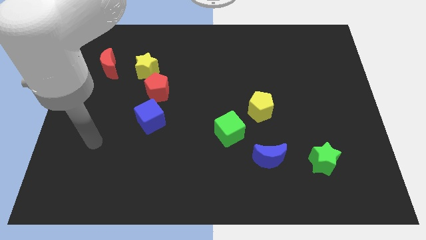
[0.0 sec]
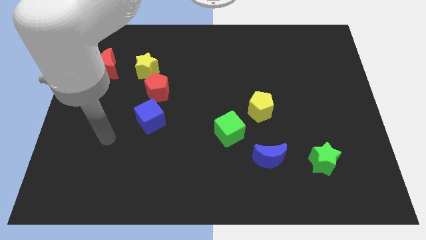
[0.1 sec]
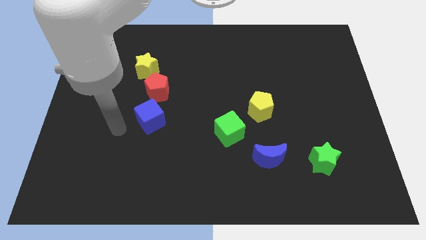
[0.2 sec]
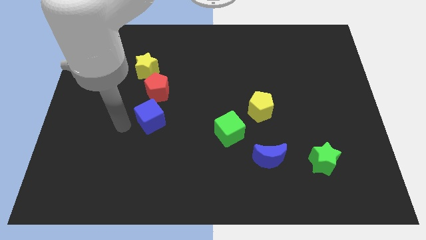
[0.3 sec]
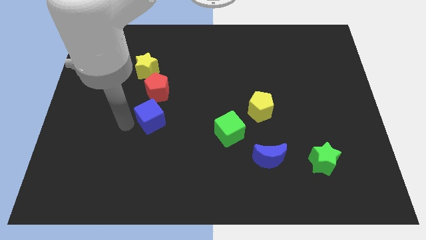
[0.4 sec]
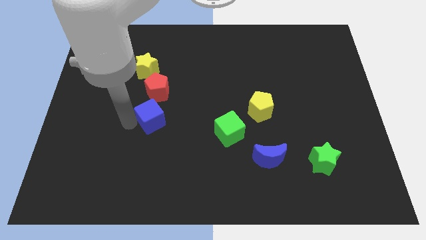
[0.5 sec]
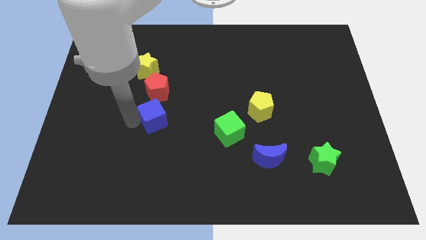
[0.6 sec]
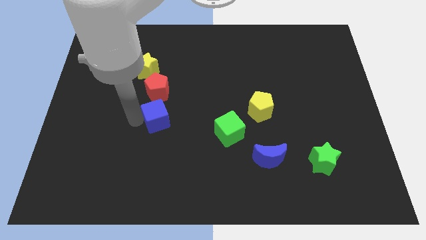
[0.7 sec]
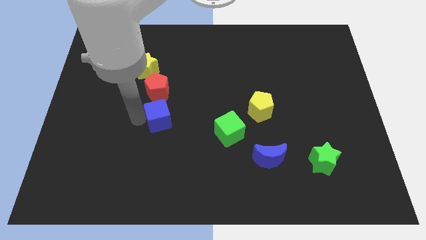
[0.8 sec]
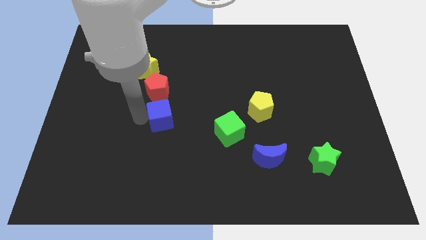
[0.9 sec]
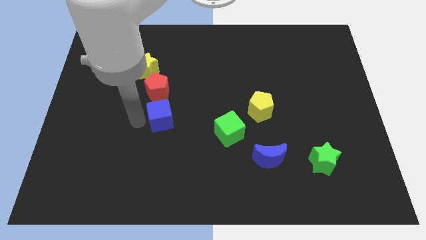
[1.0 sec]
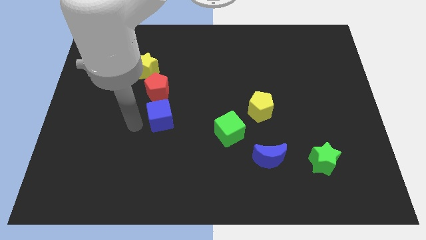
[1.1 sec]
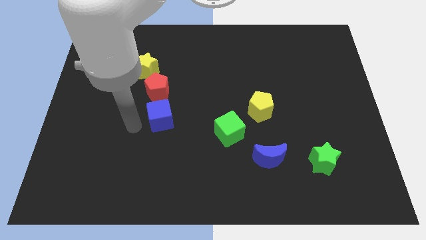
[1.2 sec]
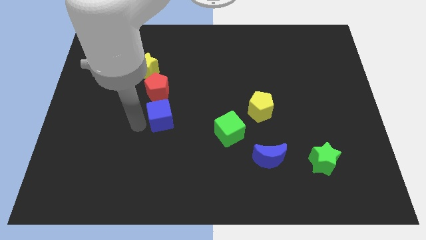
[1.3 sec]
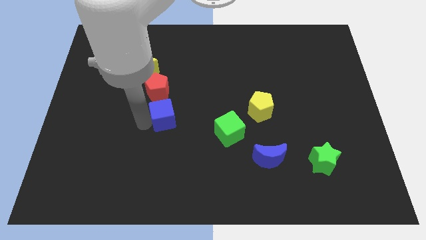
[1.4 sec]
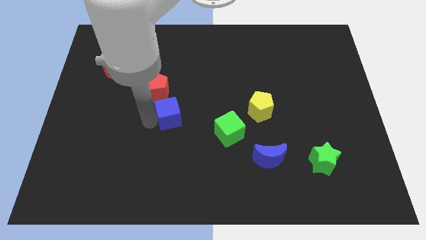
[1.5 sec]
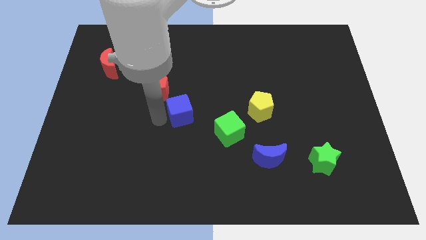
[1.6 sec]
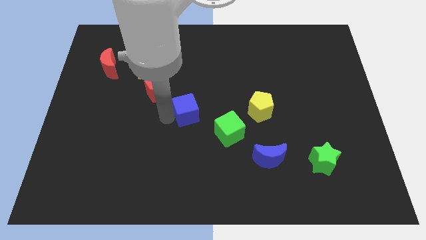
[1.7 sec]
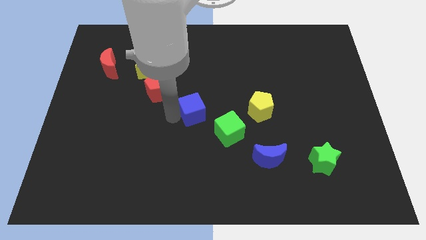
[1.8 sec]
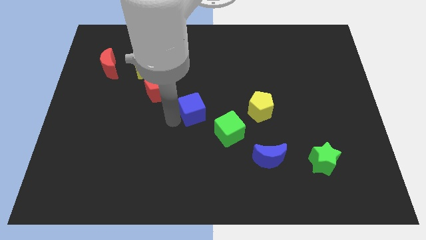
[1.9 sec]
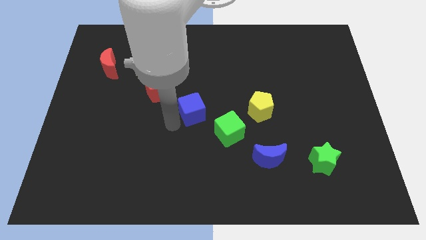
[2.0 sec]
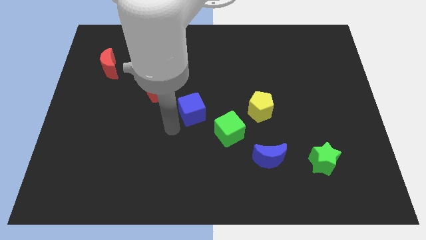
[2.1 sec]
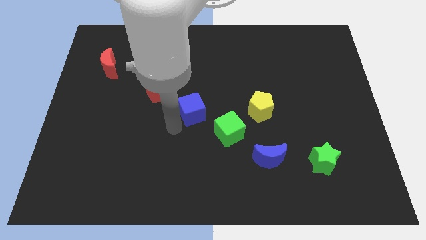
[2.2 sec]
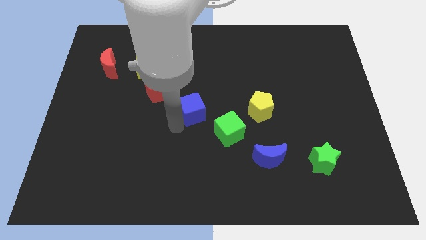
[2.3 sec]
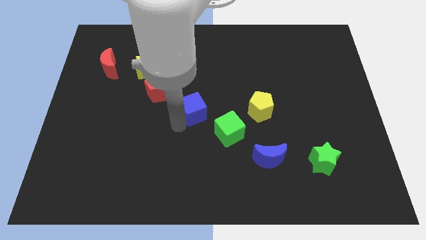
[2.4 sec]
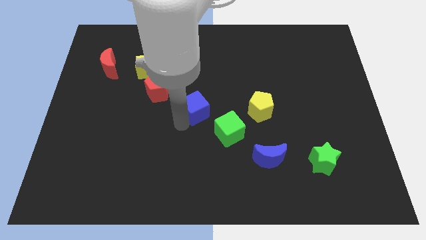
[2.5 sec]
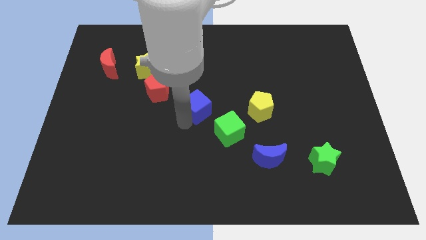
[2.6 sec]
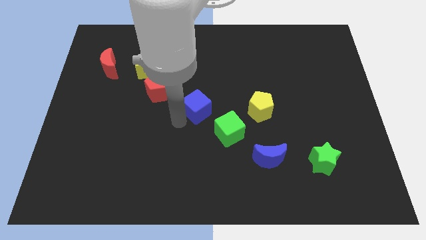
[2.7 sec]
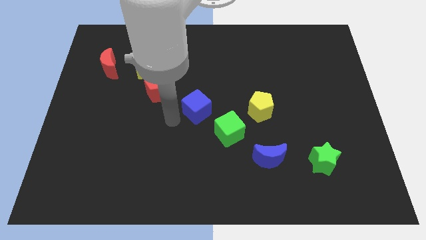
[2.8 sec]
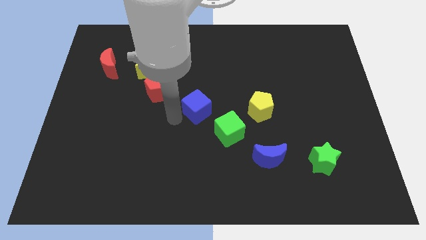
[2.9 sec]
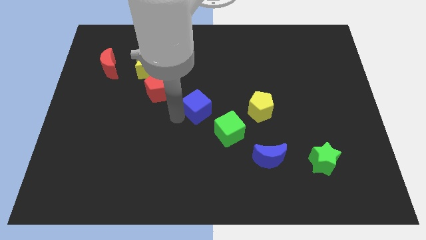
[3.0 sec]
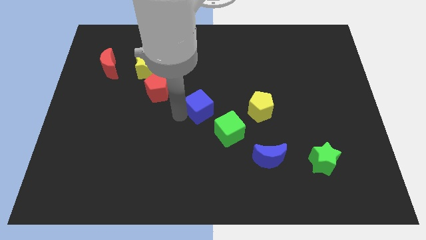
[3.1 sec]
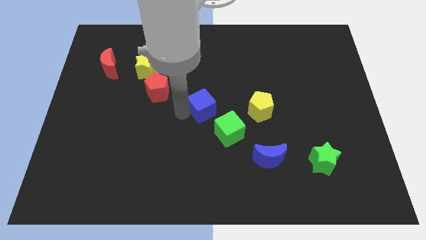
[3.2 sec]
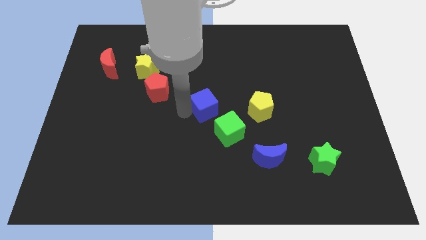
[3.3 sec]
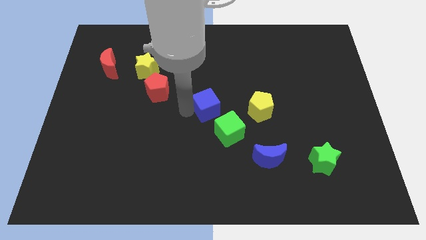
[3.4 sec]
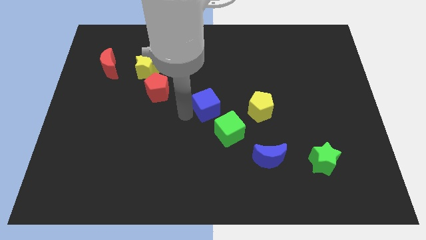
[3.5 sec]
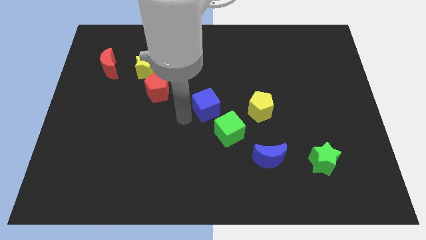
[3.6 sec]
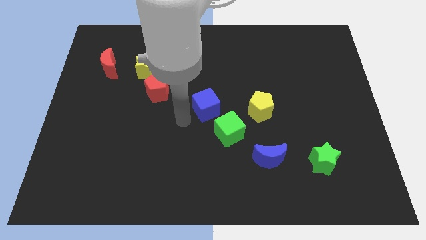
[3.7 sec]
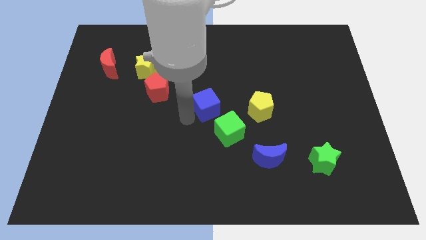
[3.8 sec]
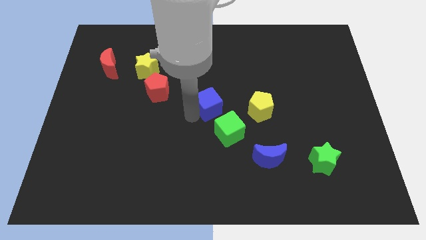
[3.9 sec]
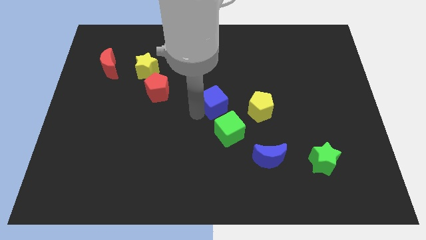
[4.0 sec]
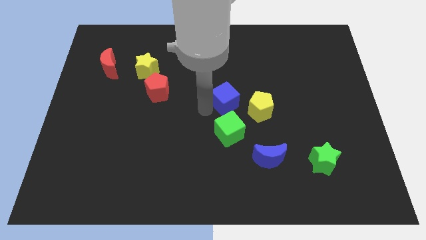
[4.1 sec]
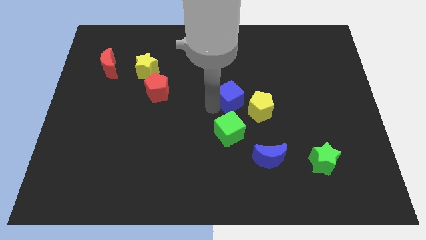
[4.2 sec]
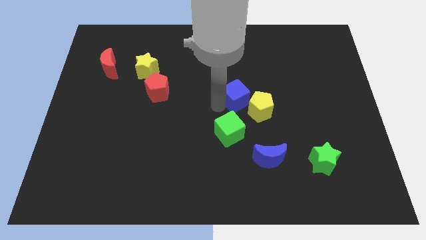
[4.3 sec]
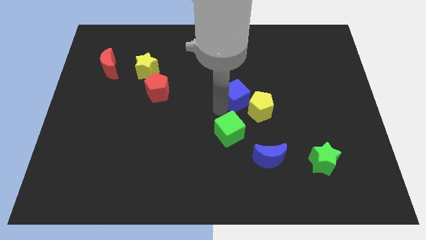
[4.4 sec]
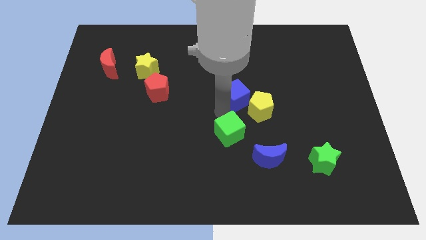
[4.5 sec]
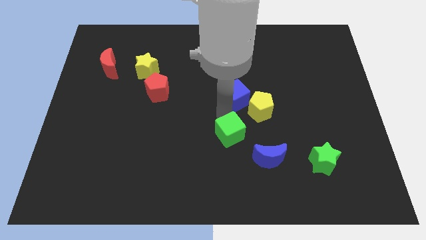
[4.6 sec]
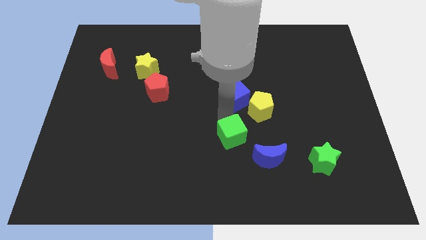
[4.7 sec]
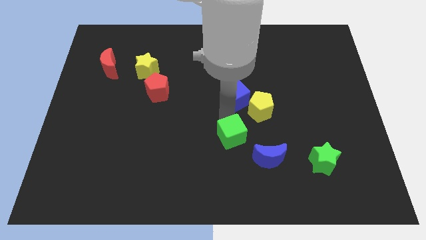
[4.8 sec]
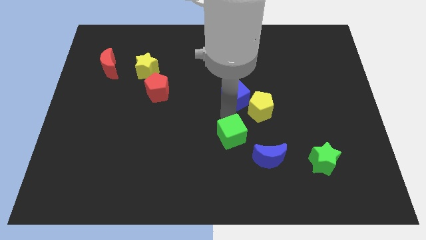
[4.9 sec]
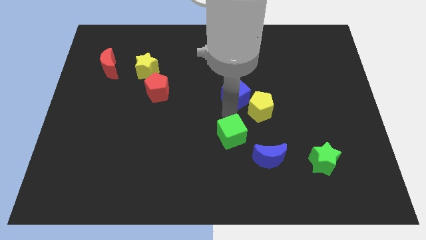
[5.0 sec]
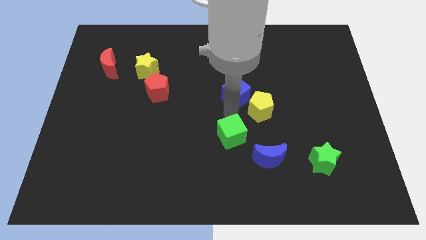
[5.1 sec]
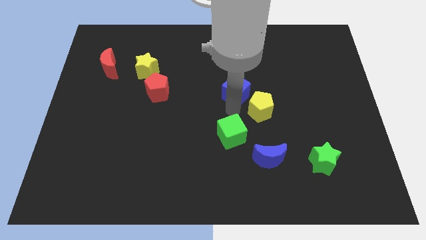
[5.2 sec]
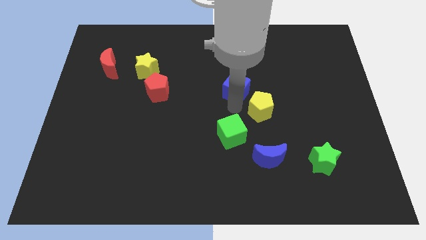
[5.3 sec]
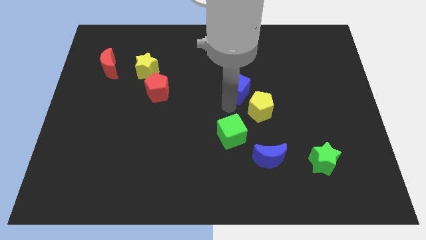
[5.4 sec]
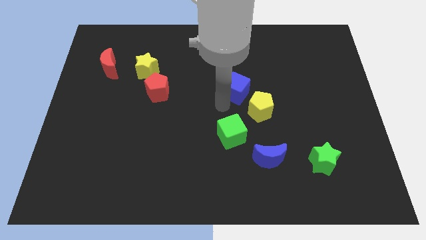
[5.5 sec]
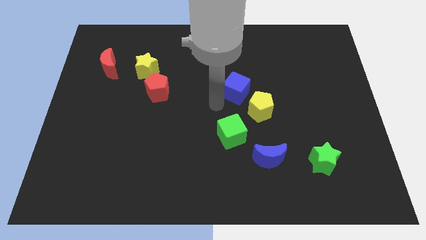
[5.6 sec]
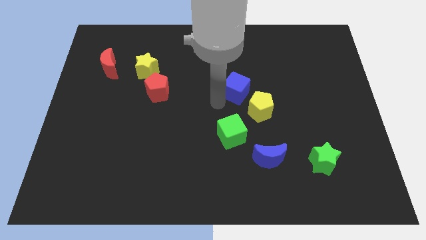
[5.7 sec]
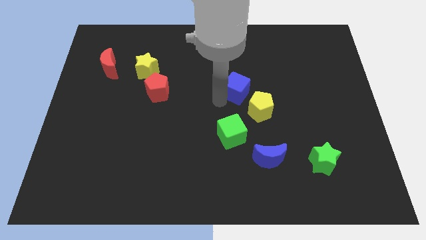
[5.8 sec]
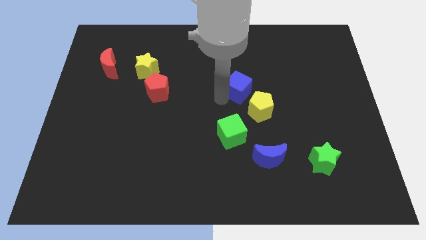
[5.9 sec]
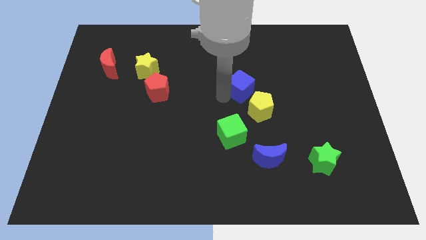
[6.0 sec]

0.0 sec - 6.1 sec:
slide the blue cube to the top side of the yellow pentagon

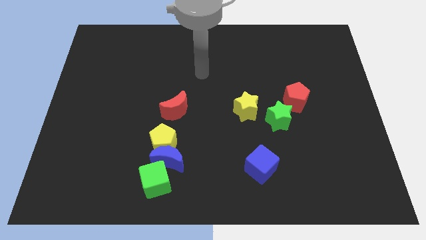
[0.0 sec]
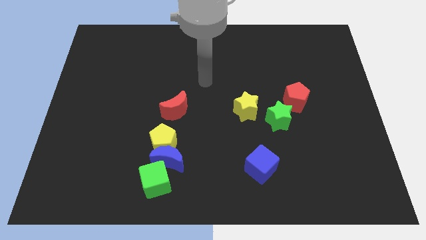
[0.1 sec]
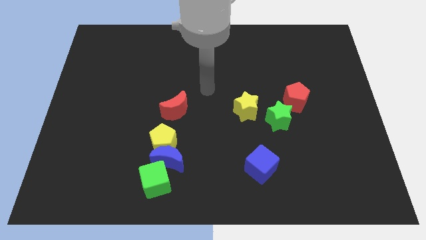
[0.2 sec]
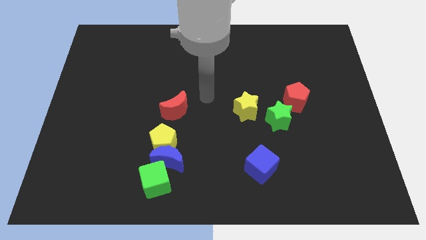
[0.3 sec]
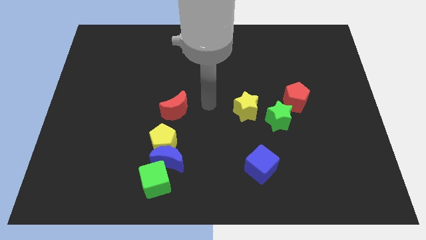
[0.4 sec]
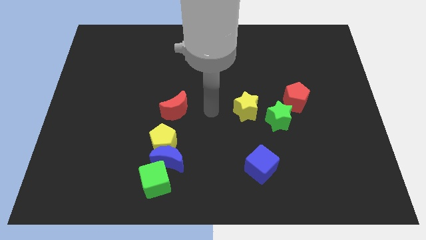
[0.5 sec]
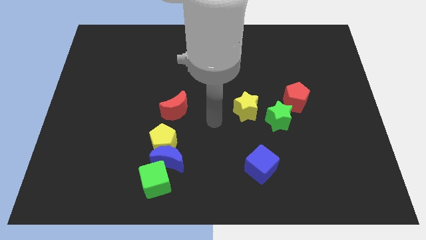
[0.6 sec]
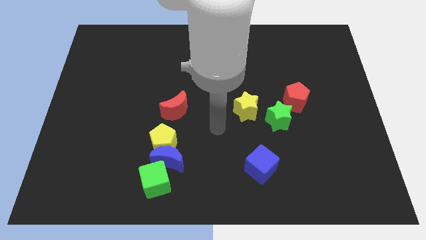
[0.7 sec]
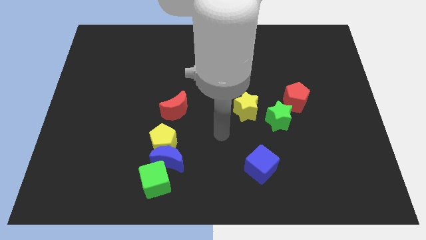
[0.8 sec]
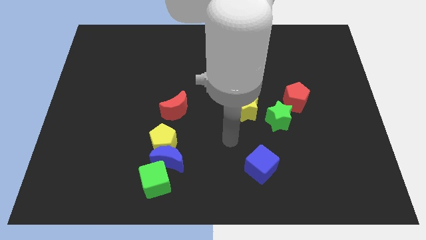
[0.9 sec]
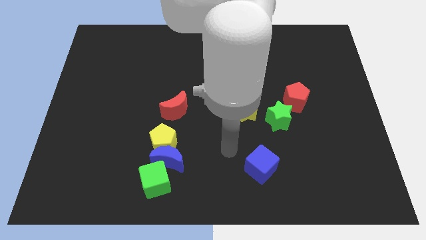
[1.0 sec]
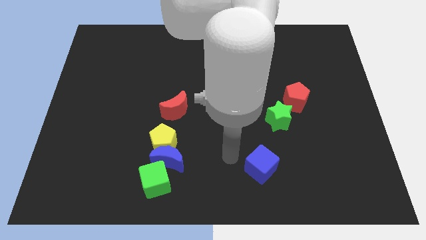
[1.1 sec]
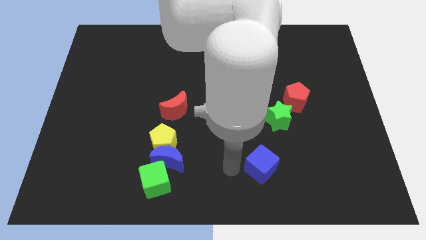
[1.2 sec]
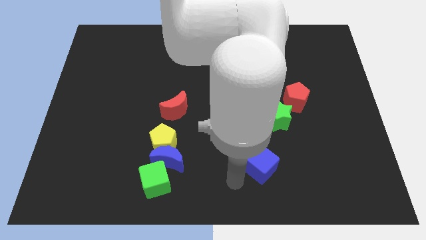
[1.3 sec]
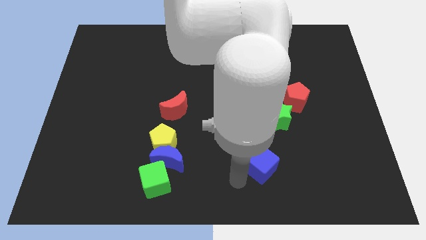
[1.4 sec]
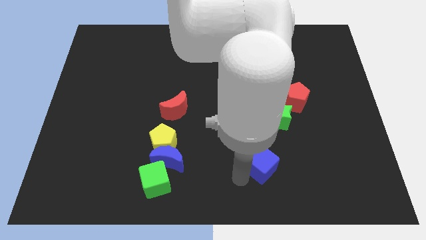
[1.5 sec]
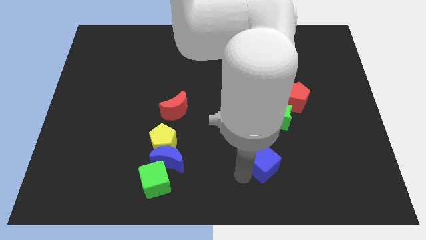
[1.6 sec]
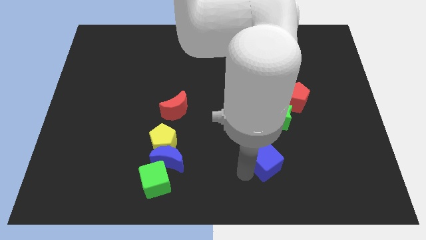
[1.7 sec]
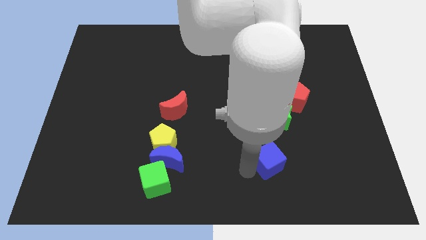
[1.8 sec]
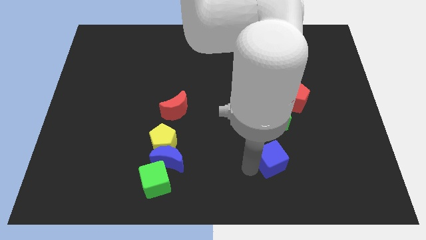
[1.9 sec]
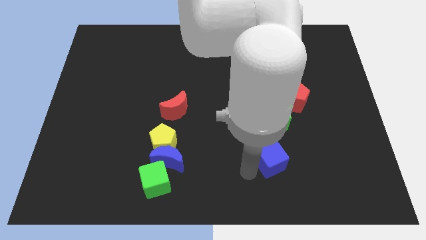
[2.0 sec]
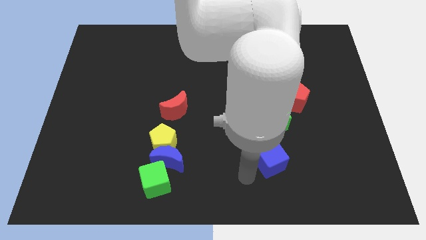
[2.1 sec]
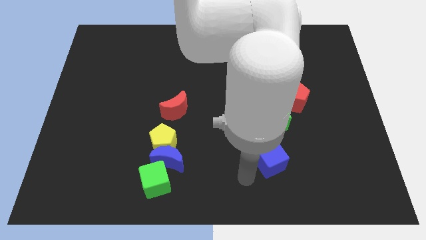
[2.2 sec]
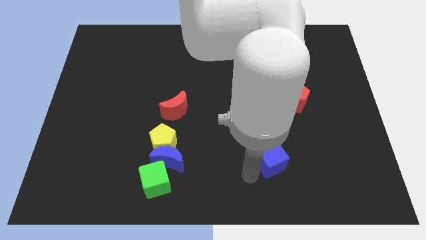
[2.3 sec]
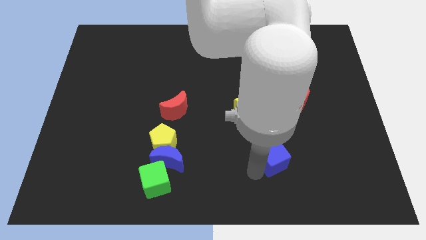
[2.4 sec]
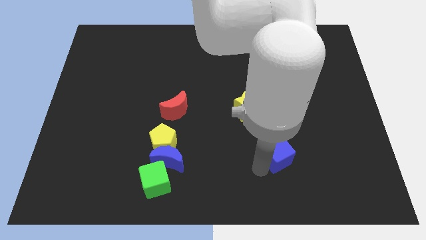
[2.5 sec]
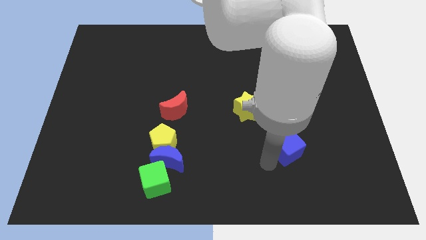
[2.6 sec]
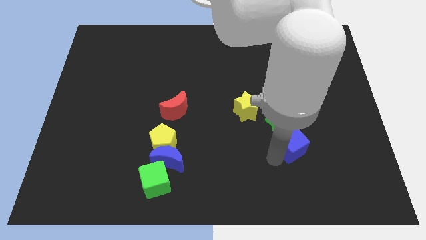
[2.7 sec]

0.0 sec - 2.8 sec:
move the blue cube diagonally down and to the right of the green star
